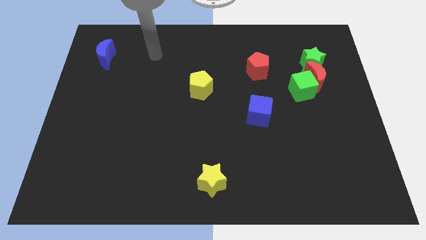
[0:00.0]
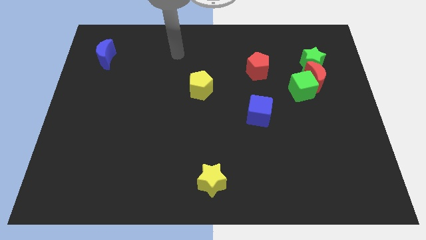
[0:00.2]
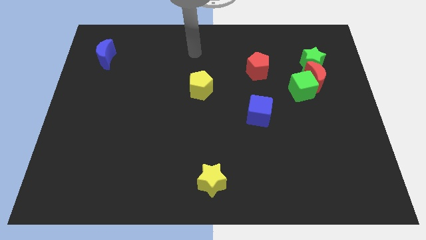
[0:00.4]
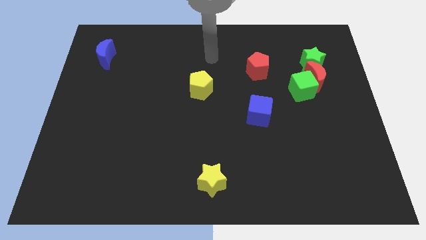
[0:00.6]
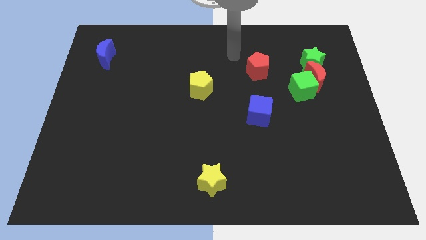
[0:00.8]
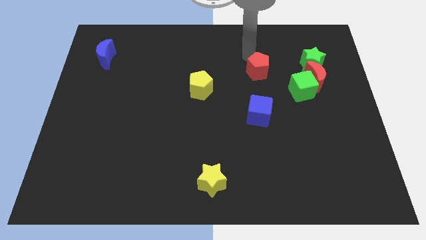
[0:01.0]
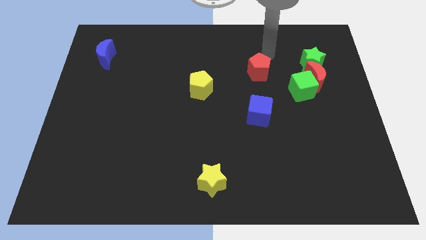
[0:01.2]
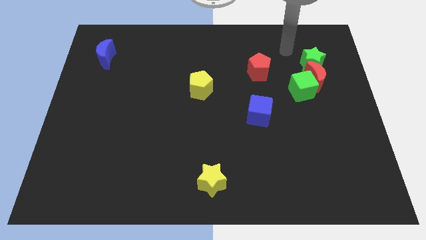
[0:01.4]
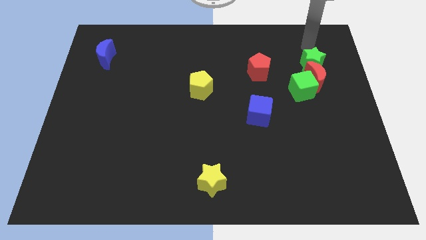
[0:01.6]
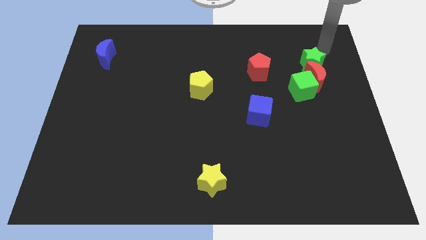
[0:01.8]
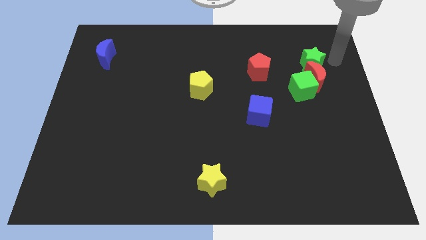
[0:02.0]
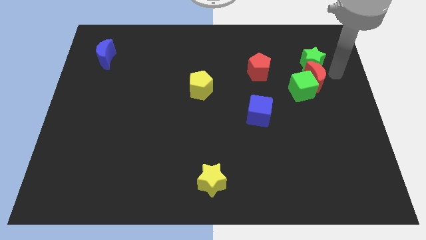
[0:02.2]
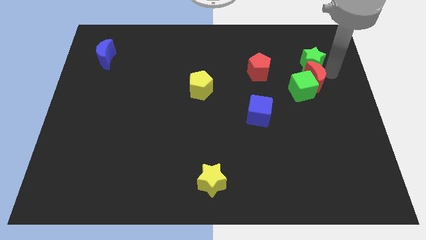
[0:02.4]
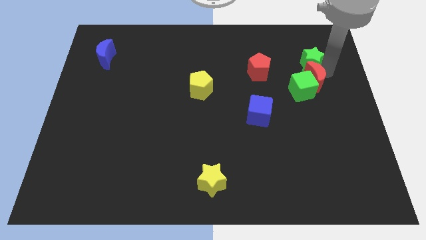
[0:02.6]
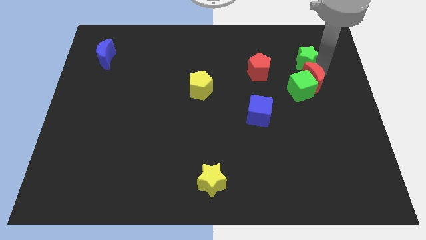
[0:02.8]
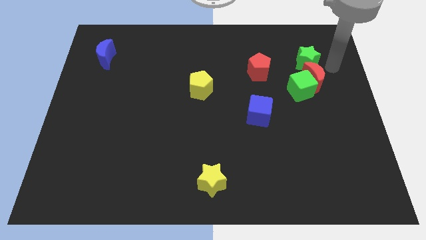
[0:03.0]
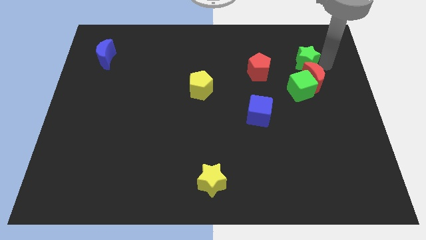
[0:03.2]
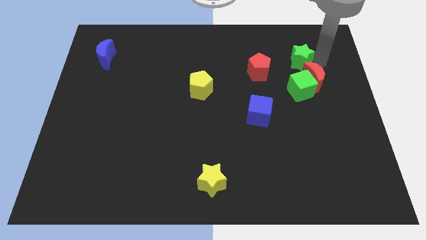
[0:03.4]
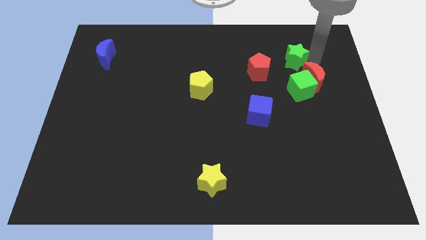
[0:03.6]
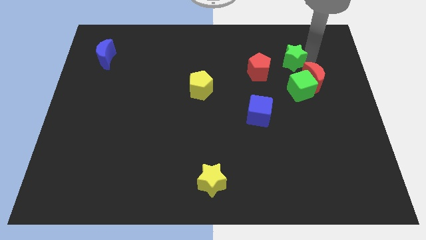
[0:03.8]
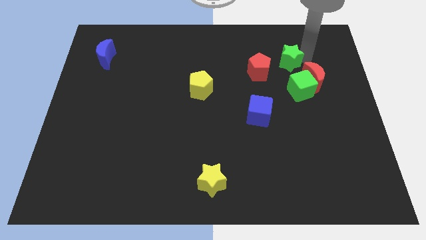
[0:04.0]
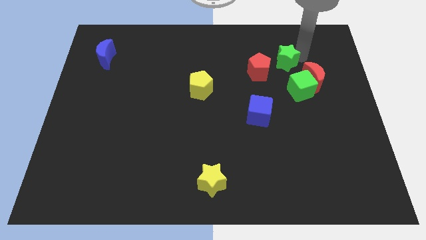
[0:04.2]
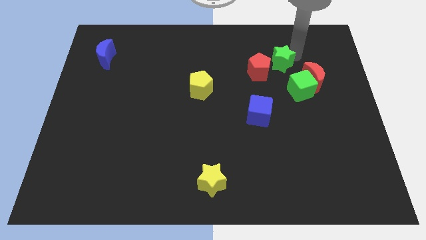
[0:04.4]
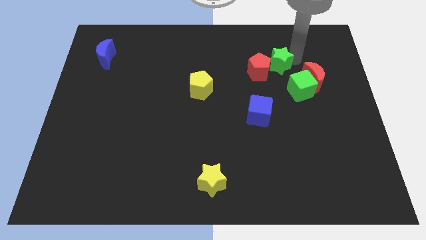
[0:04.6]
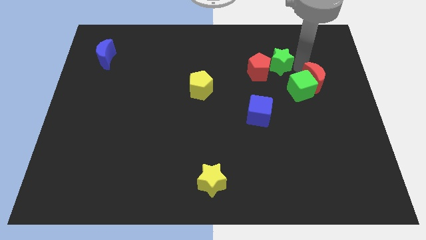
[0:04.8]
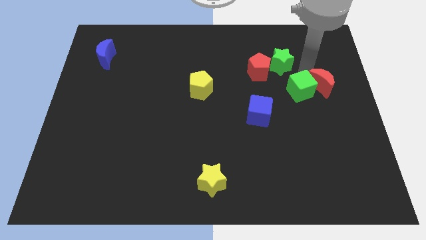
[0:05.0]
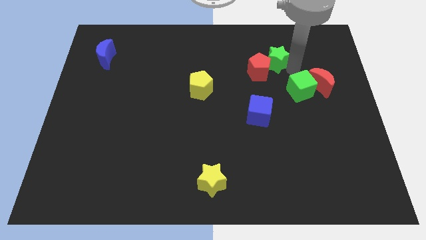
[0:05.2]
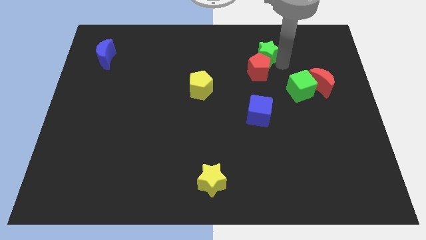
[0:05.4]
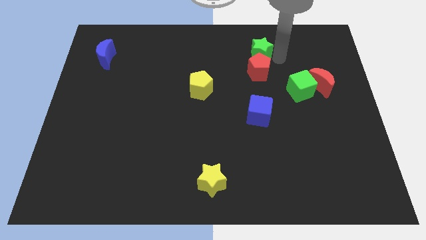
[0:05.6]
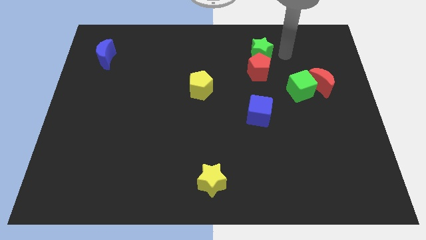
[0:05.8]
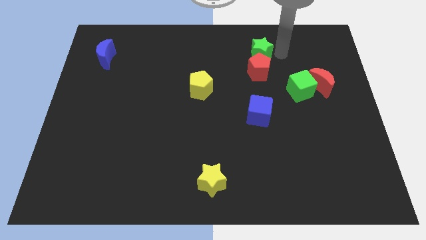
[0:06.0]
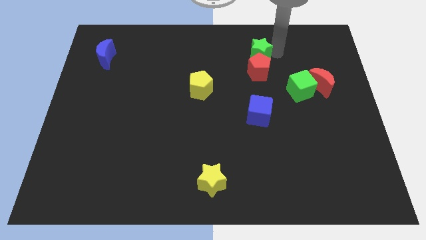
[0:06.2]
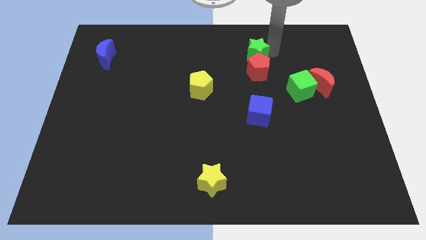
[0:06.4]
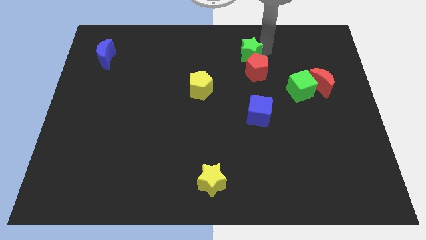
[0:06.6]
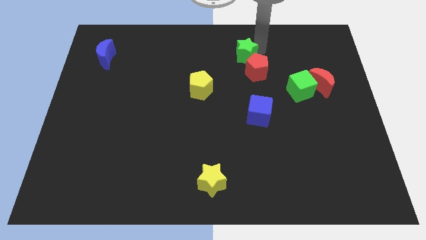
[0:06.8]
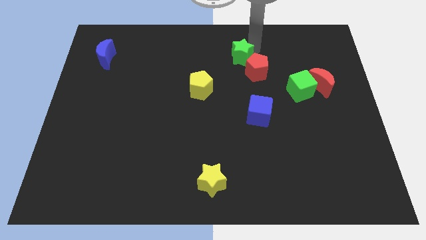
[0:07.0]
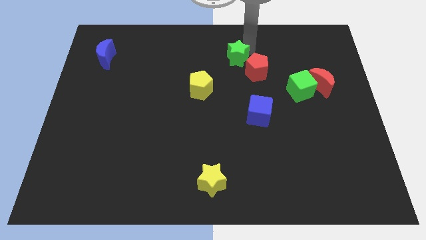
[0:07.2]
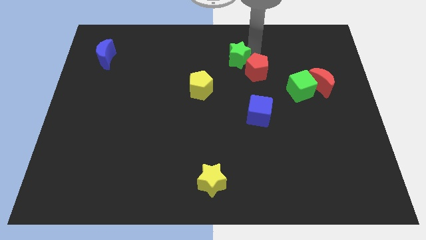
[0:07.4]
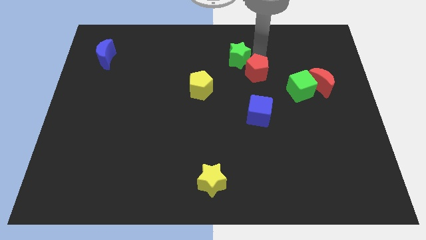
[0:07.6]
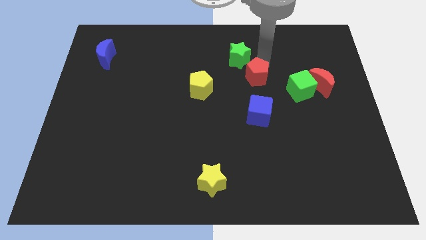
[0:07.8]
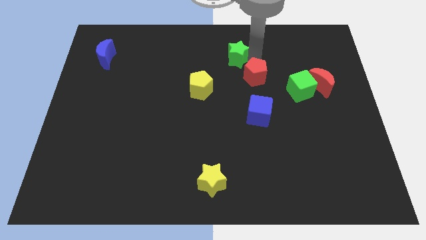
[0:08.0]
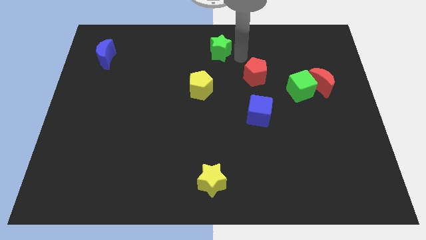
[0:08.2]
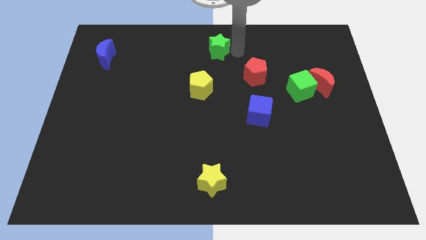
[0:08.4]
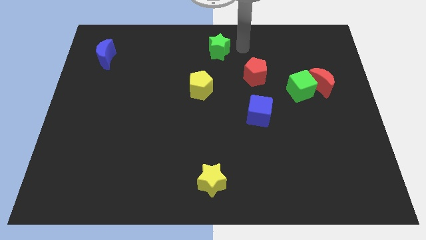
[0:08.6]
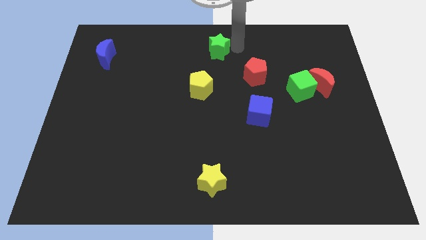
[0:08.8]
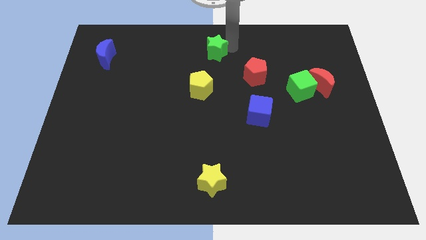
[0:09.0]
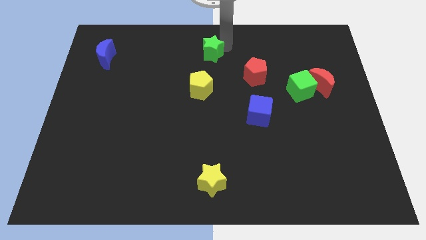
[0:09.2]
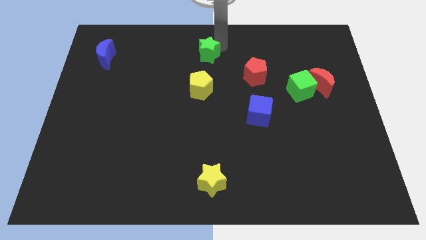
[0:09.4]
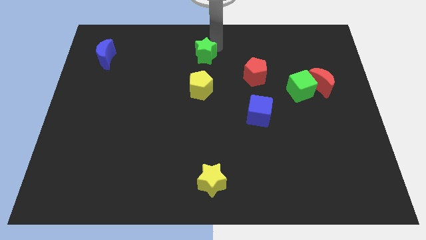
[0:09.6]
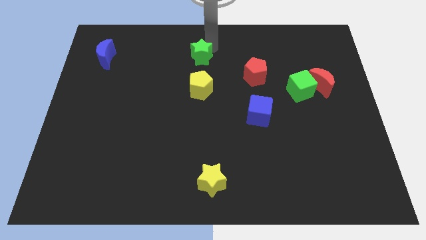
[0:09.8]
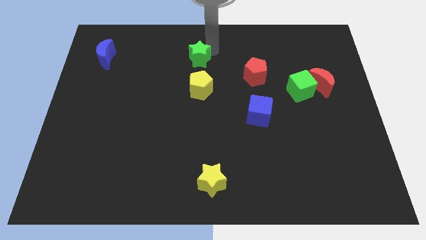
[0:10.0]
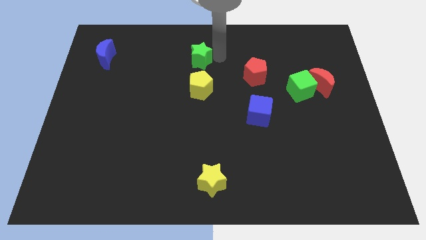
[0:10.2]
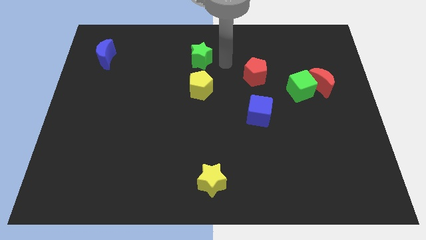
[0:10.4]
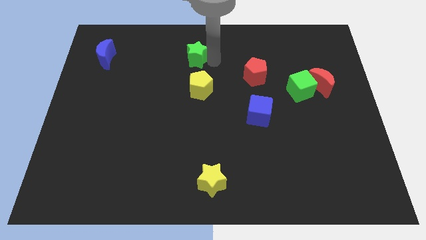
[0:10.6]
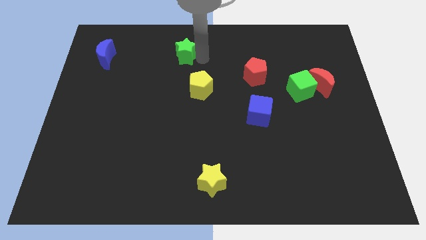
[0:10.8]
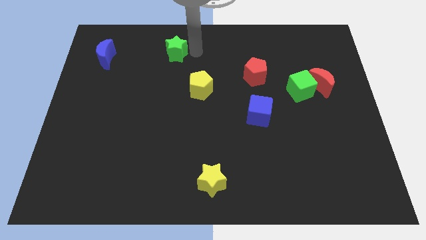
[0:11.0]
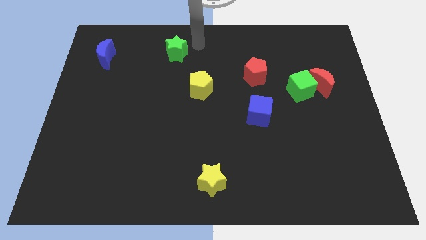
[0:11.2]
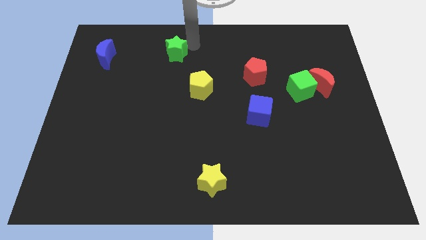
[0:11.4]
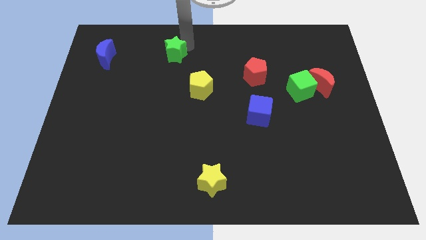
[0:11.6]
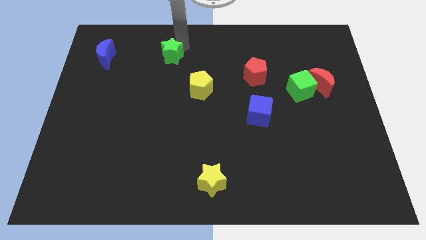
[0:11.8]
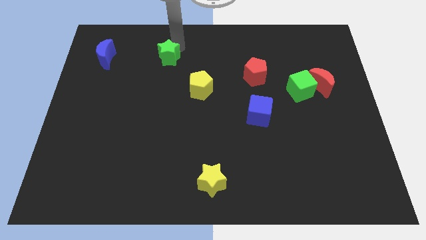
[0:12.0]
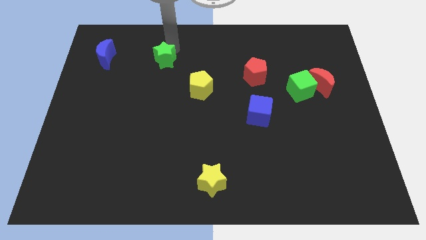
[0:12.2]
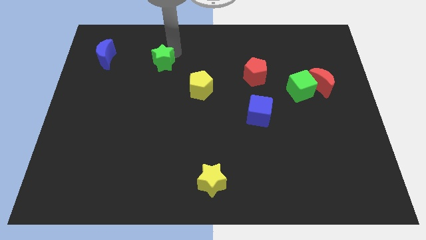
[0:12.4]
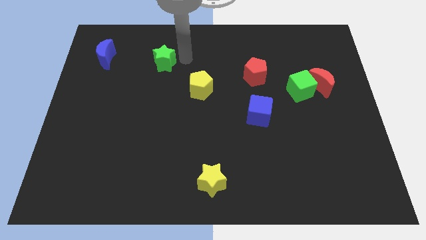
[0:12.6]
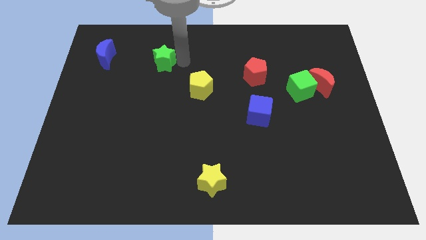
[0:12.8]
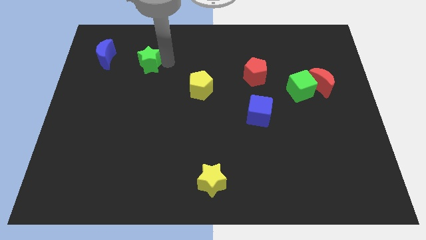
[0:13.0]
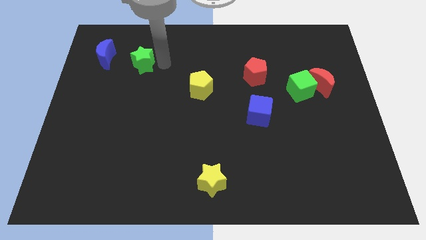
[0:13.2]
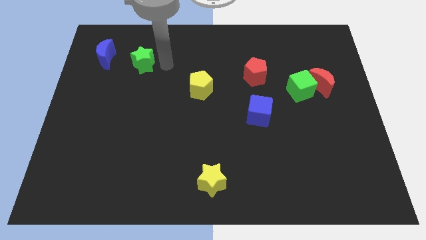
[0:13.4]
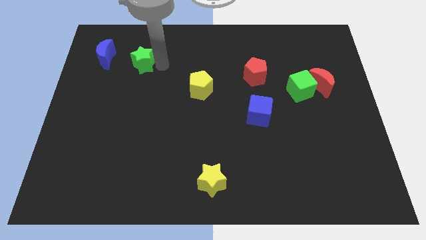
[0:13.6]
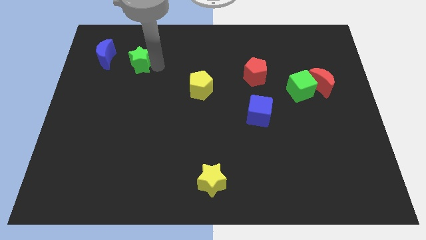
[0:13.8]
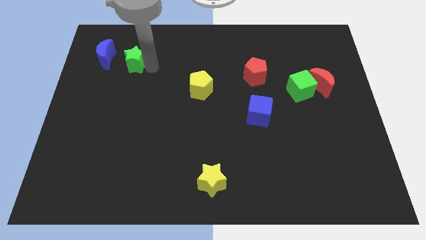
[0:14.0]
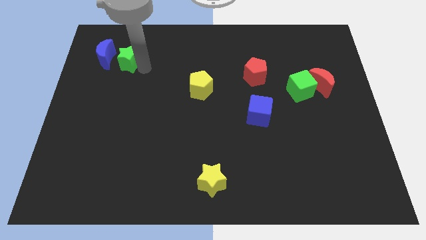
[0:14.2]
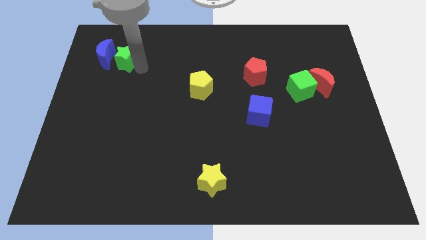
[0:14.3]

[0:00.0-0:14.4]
push the green star to the blue moon

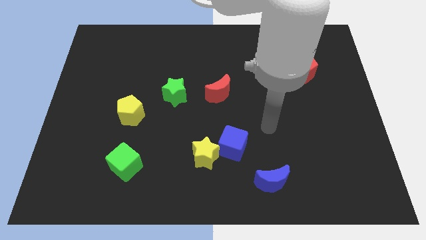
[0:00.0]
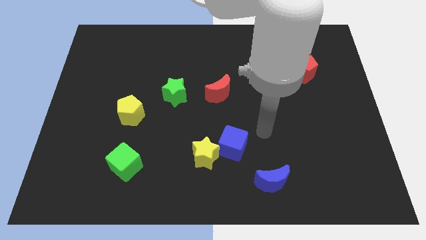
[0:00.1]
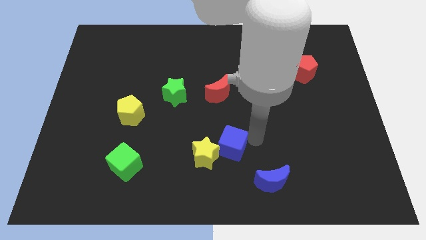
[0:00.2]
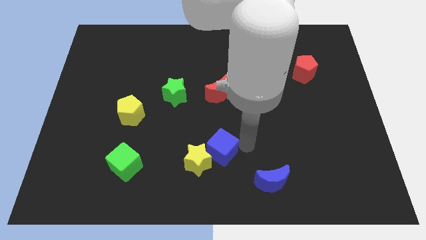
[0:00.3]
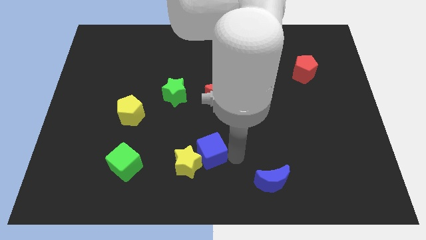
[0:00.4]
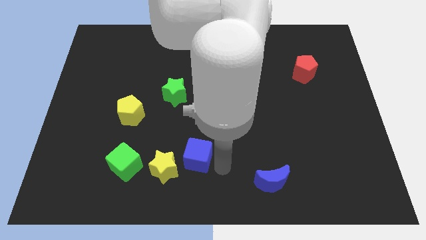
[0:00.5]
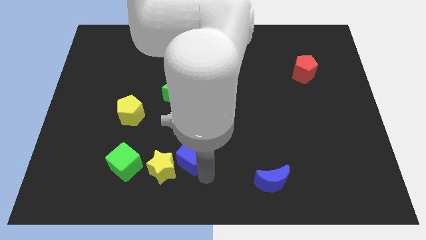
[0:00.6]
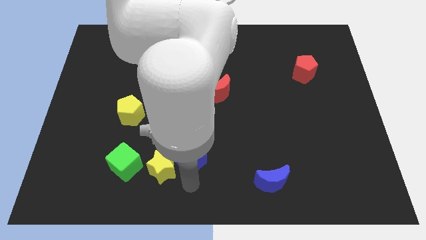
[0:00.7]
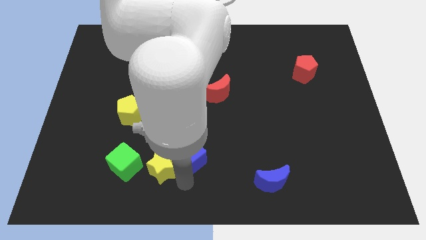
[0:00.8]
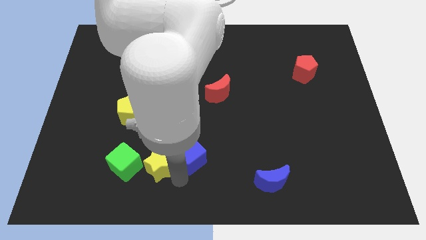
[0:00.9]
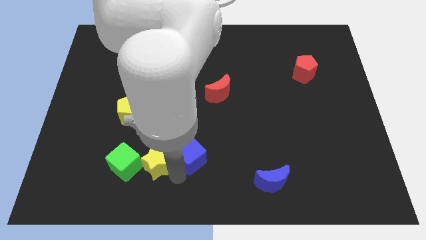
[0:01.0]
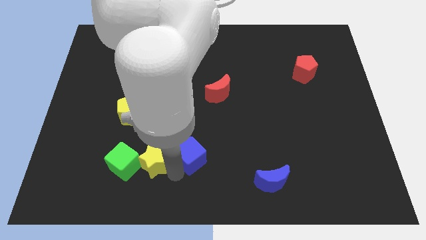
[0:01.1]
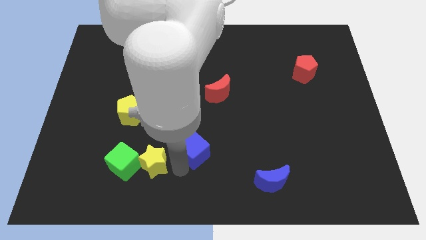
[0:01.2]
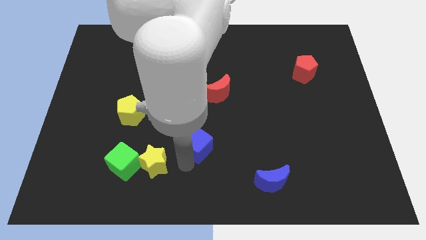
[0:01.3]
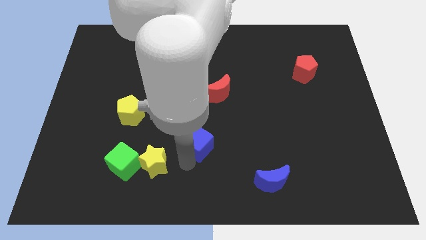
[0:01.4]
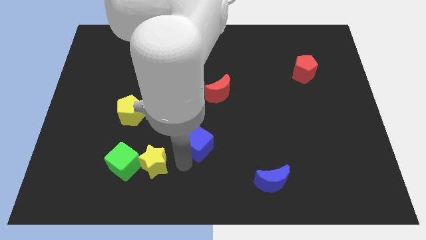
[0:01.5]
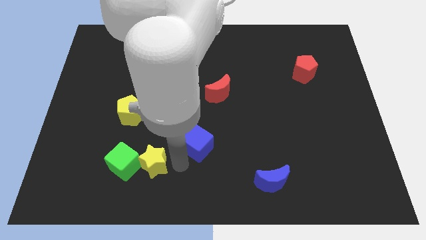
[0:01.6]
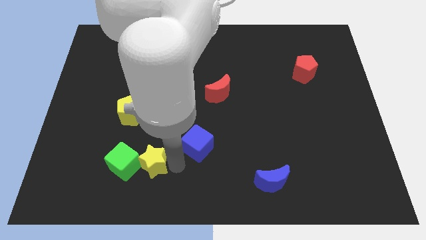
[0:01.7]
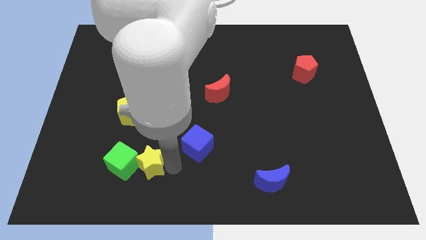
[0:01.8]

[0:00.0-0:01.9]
push the yellow star next to the green cube
